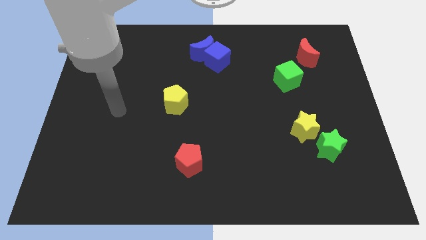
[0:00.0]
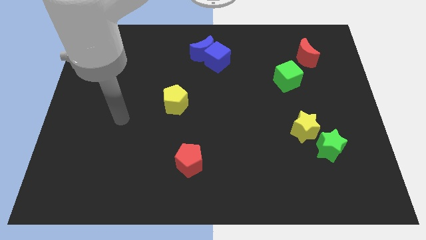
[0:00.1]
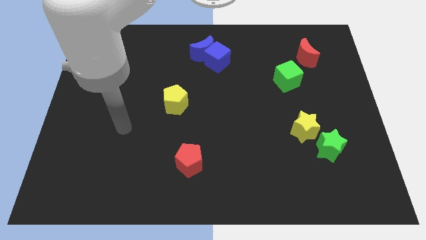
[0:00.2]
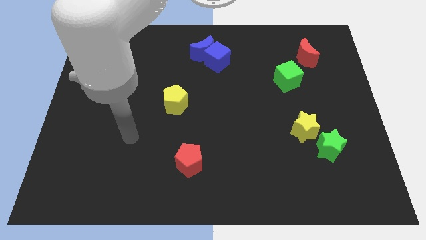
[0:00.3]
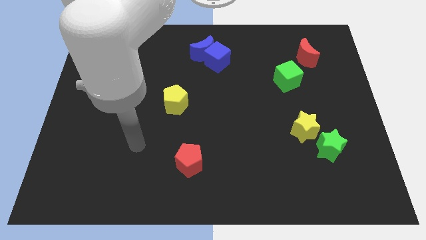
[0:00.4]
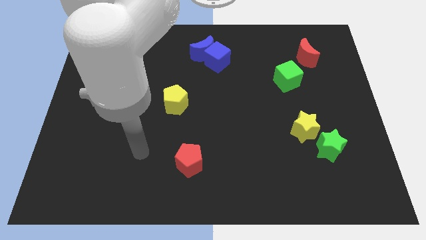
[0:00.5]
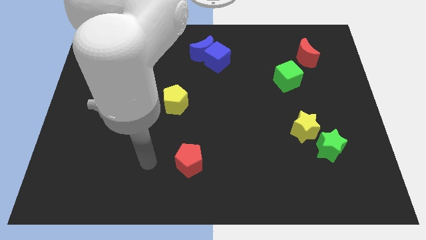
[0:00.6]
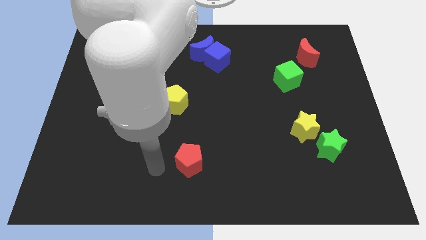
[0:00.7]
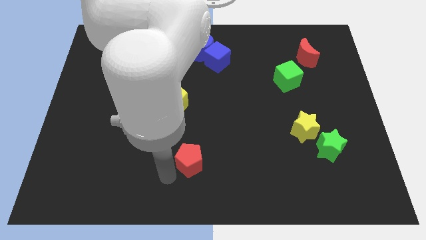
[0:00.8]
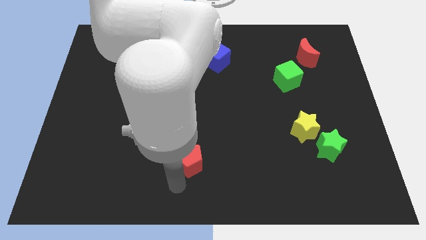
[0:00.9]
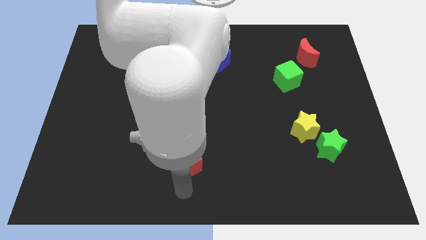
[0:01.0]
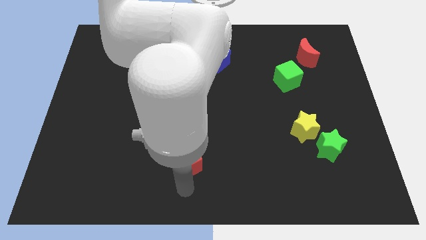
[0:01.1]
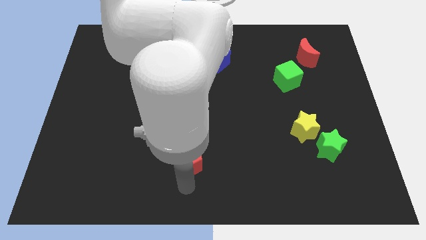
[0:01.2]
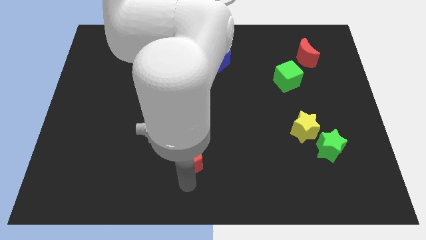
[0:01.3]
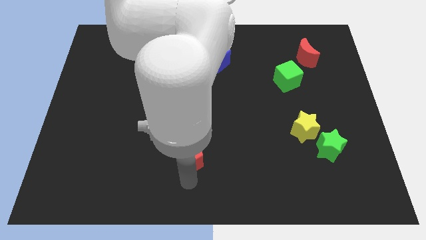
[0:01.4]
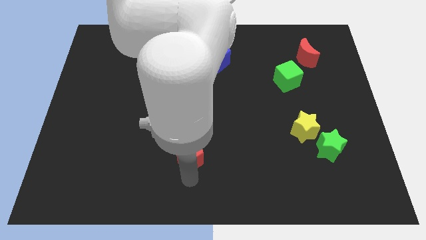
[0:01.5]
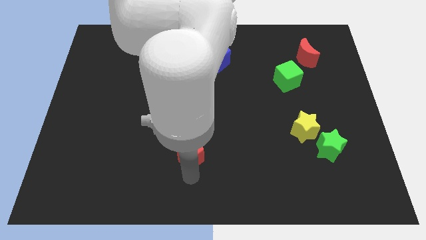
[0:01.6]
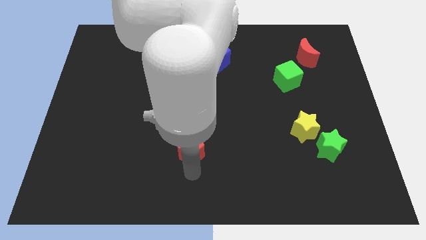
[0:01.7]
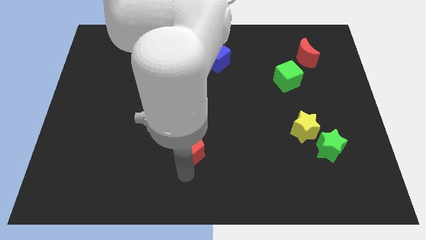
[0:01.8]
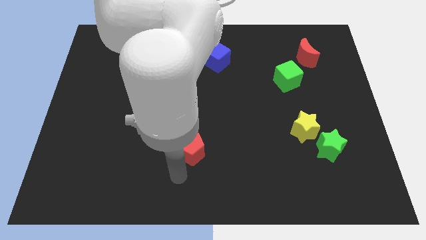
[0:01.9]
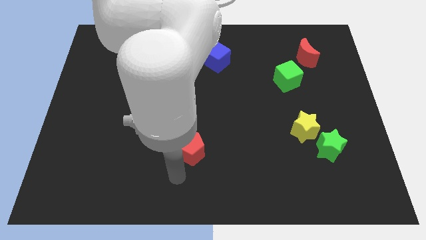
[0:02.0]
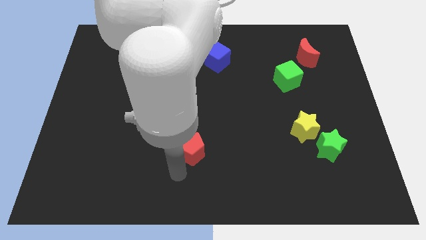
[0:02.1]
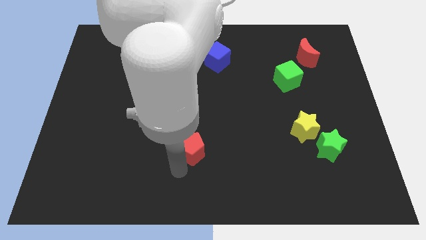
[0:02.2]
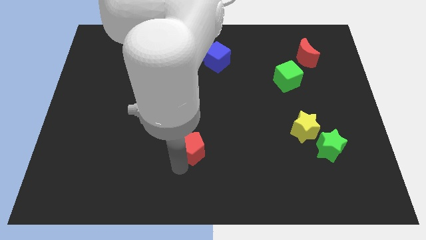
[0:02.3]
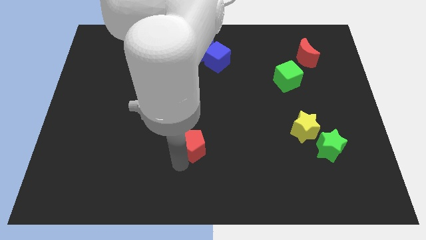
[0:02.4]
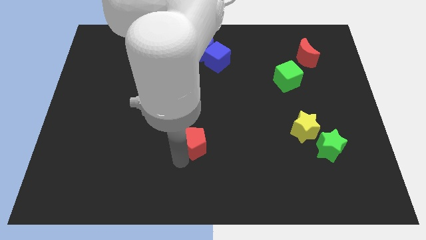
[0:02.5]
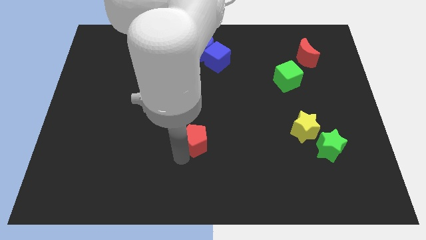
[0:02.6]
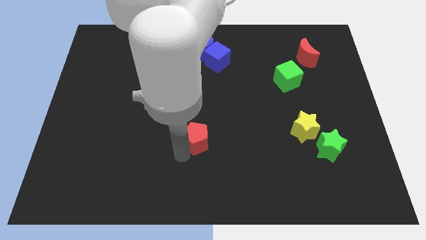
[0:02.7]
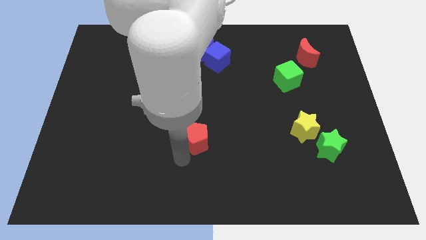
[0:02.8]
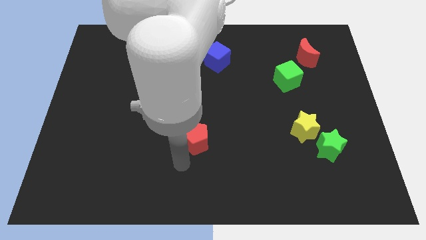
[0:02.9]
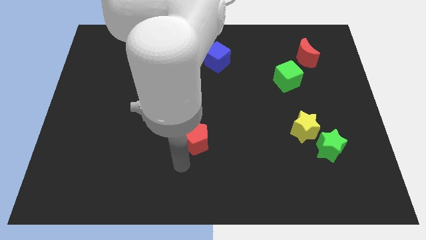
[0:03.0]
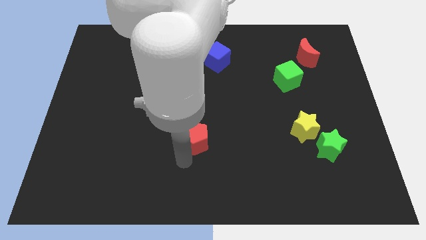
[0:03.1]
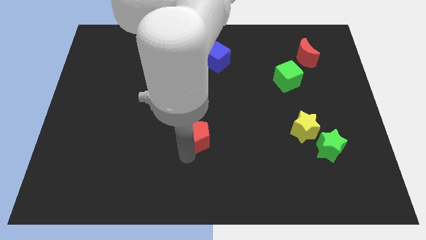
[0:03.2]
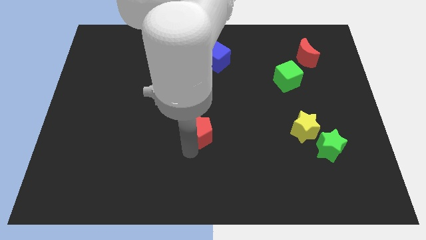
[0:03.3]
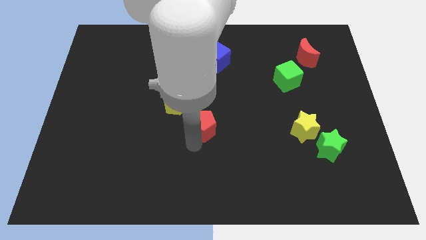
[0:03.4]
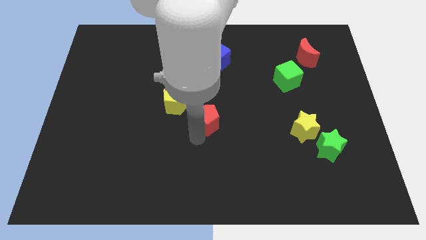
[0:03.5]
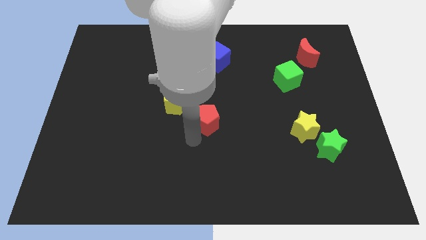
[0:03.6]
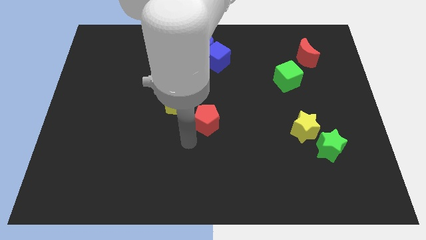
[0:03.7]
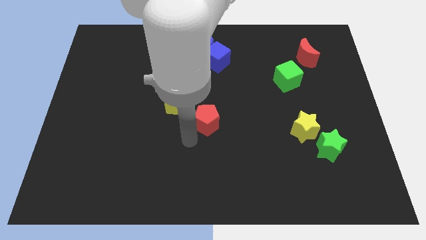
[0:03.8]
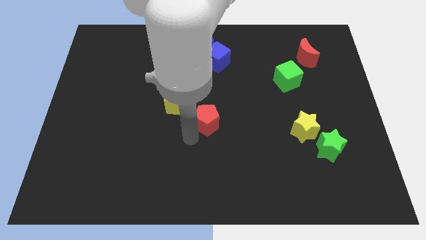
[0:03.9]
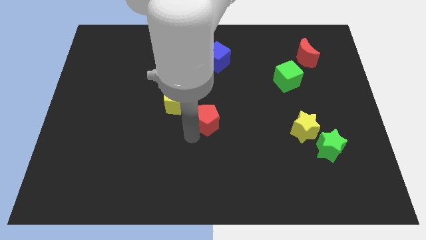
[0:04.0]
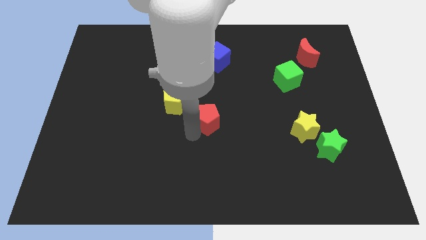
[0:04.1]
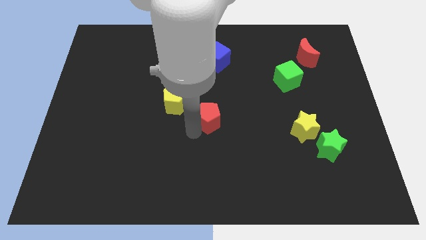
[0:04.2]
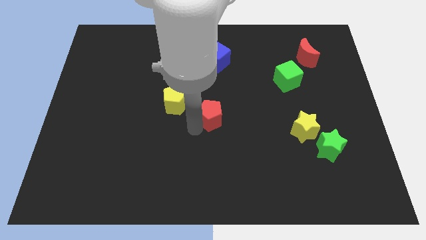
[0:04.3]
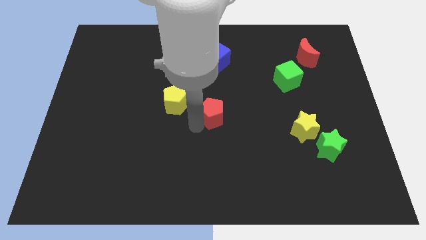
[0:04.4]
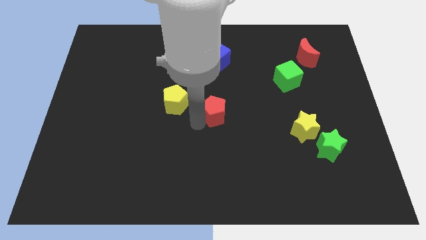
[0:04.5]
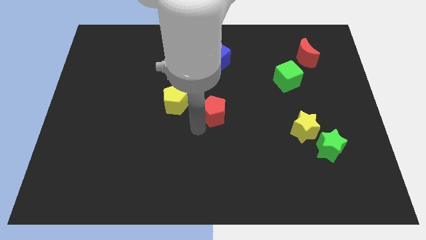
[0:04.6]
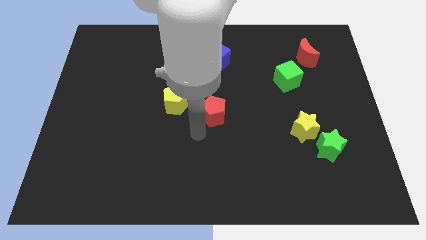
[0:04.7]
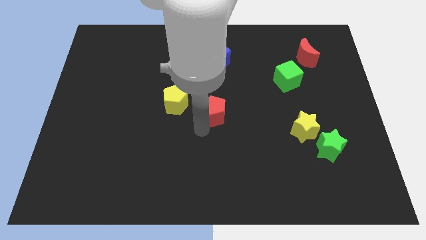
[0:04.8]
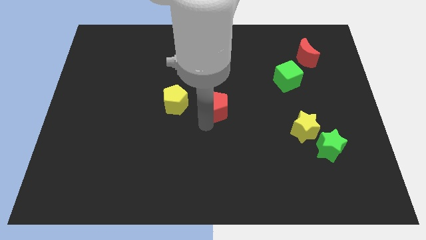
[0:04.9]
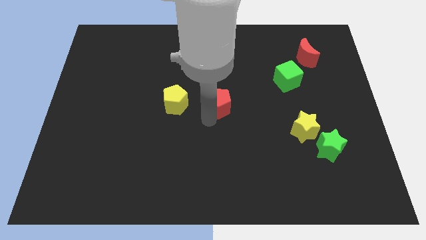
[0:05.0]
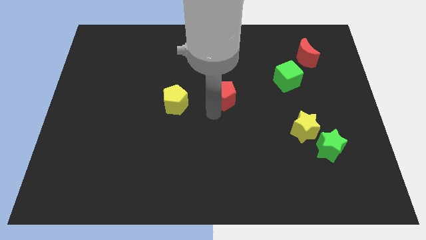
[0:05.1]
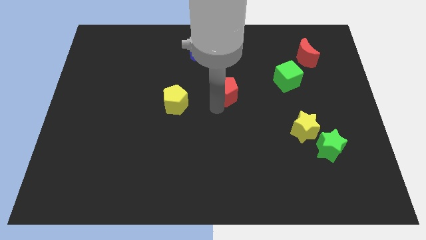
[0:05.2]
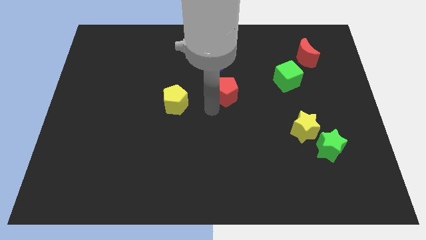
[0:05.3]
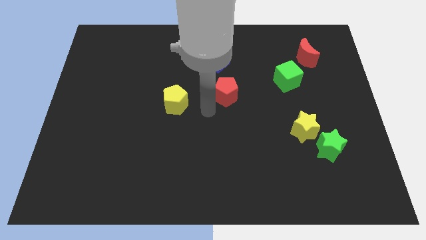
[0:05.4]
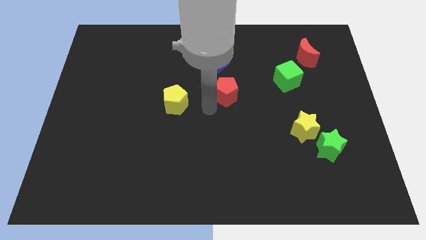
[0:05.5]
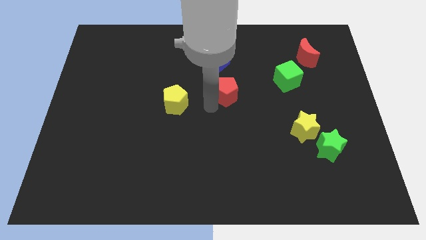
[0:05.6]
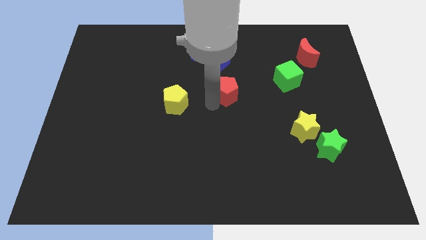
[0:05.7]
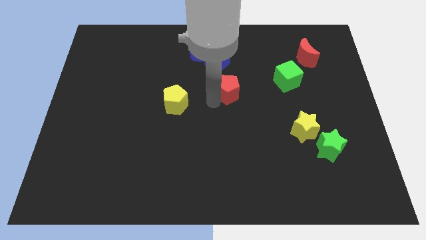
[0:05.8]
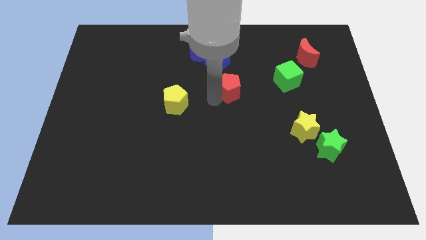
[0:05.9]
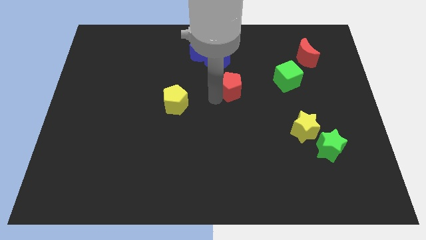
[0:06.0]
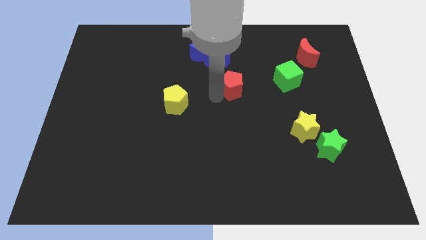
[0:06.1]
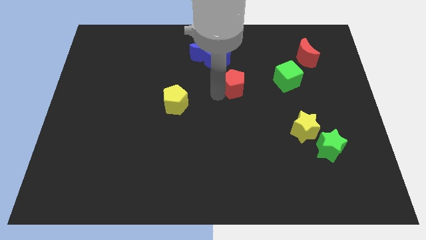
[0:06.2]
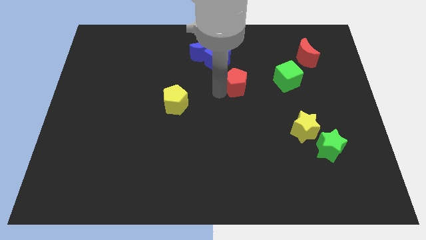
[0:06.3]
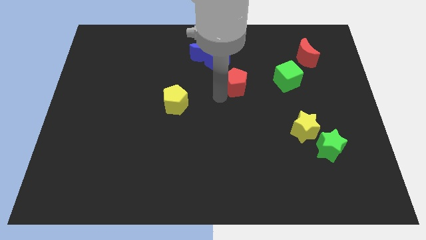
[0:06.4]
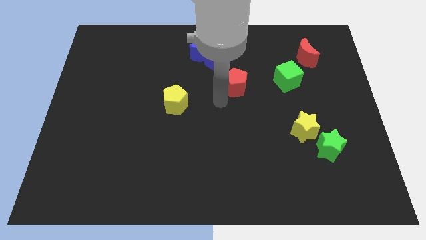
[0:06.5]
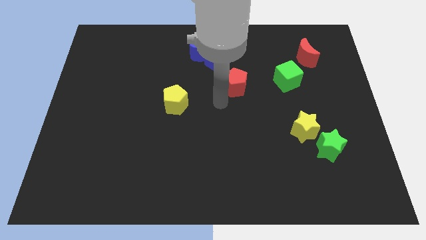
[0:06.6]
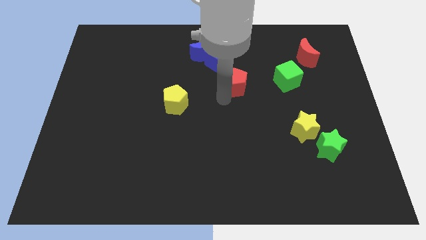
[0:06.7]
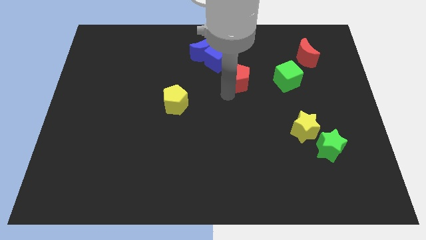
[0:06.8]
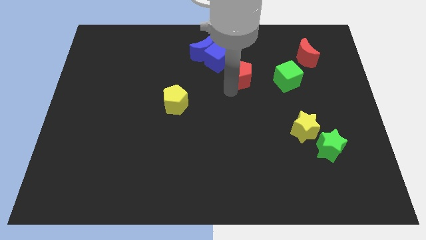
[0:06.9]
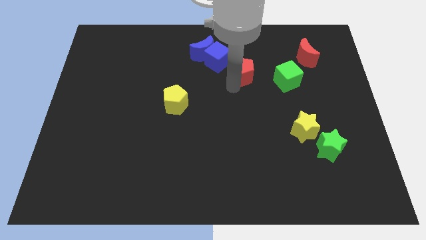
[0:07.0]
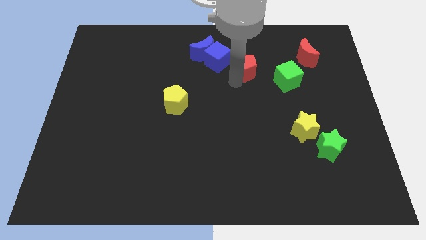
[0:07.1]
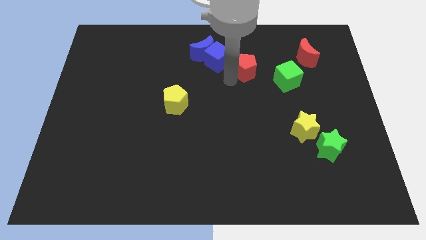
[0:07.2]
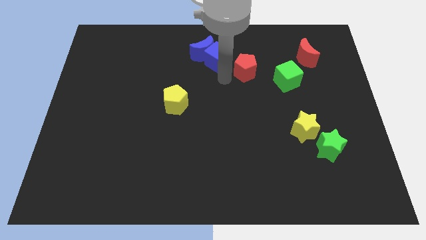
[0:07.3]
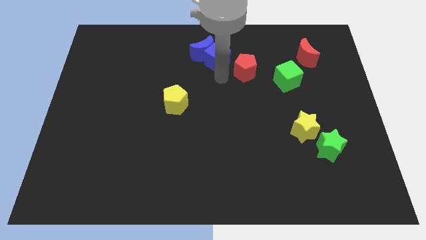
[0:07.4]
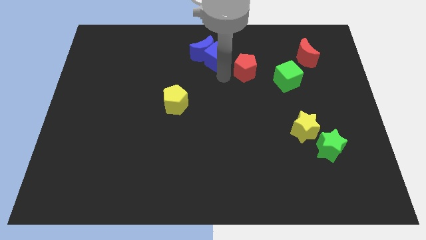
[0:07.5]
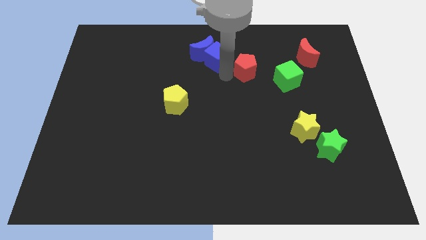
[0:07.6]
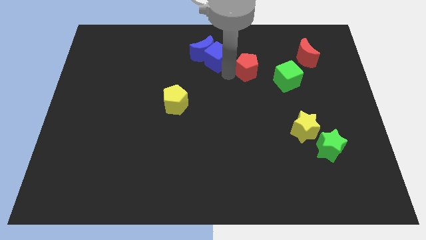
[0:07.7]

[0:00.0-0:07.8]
put the red pentagon to the top left of the green cube
